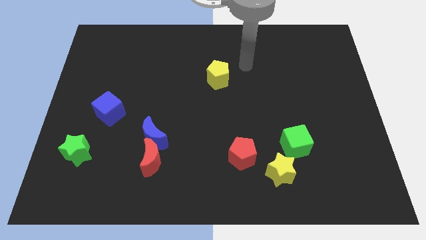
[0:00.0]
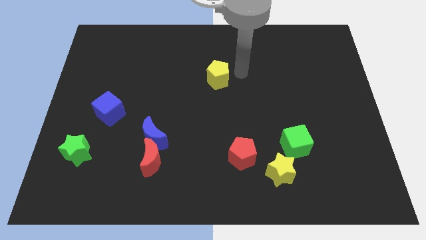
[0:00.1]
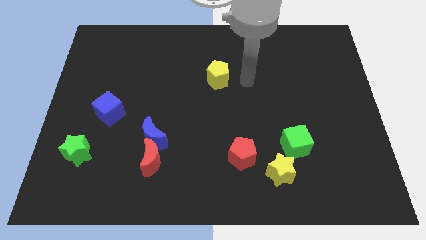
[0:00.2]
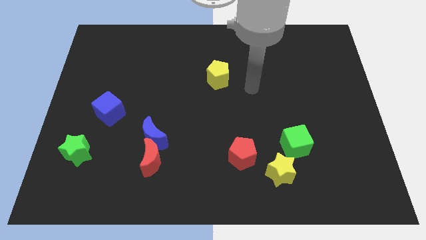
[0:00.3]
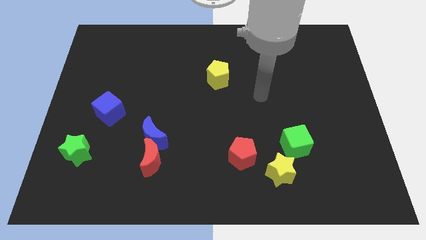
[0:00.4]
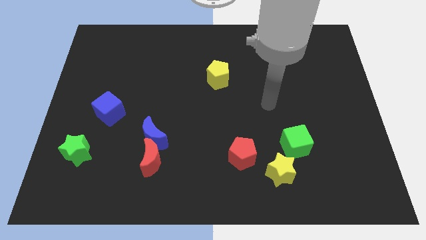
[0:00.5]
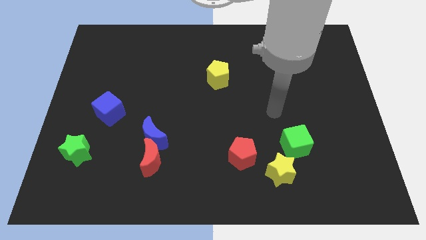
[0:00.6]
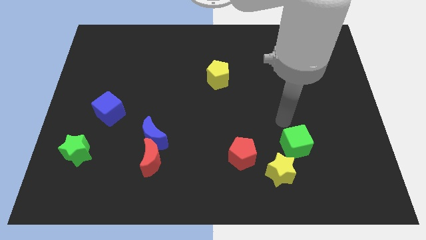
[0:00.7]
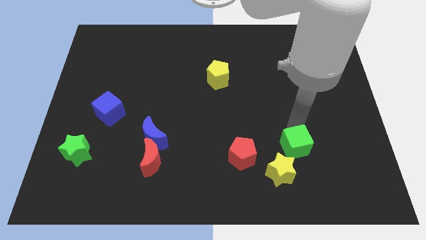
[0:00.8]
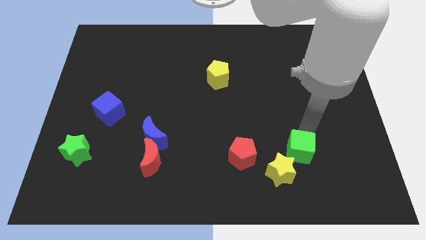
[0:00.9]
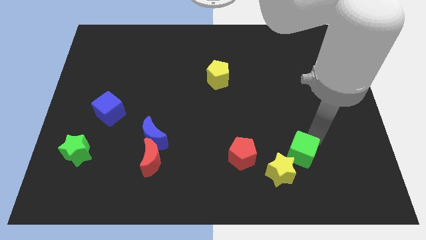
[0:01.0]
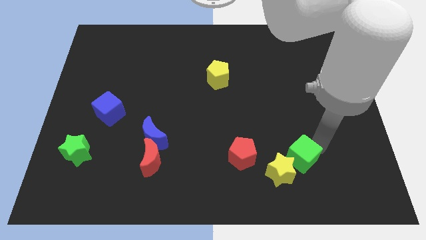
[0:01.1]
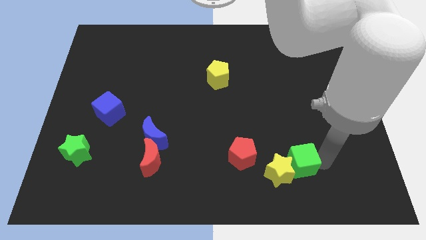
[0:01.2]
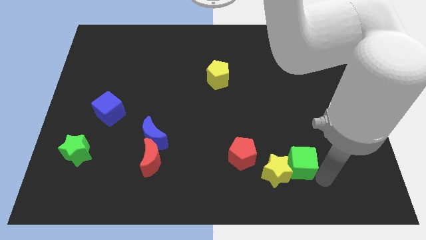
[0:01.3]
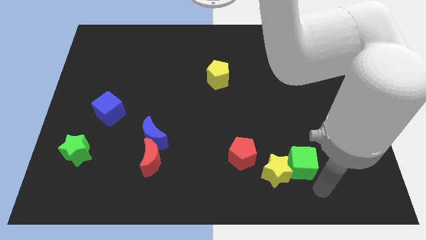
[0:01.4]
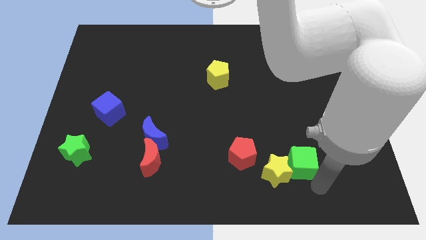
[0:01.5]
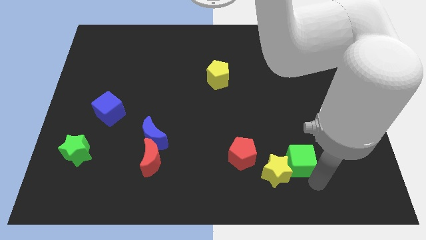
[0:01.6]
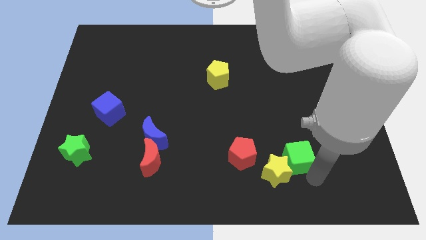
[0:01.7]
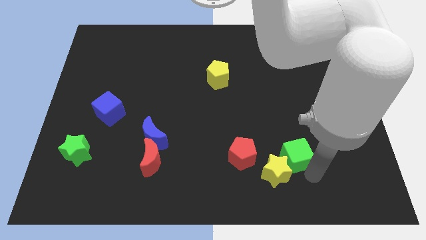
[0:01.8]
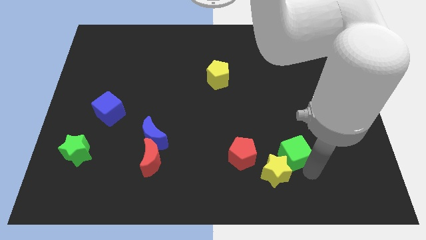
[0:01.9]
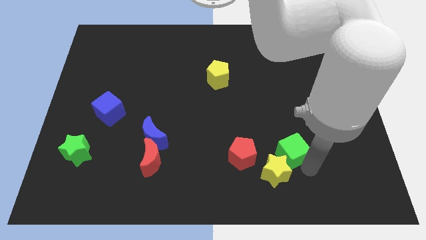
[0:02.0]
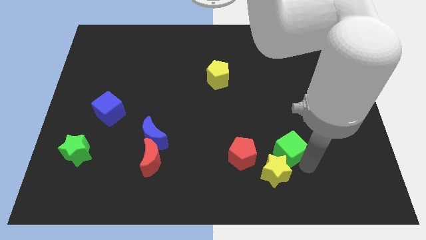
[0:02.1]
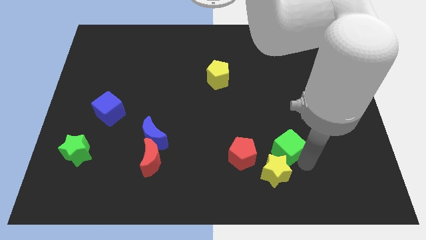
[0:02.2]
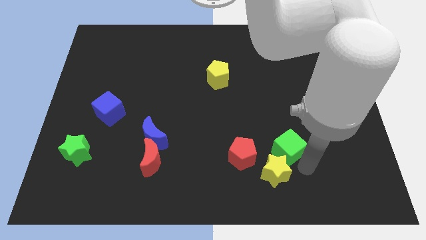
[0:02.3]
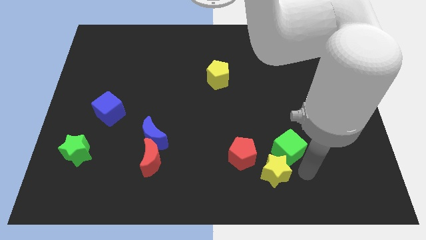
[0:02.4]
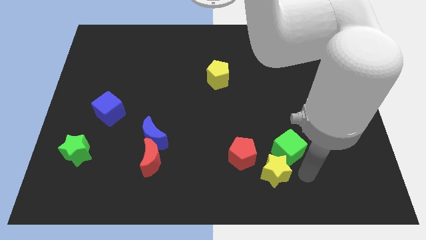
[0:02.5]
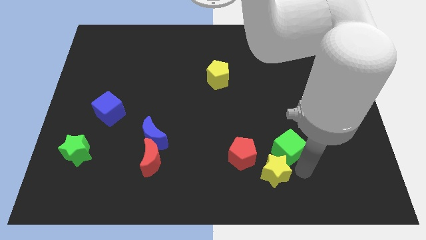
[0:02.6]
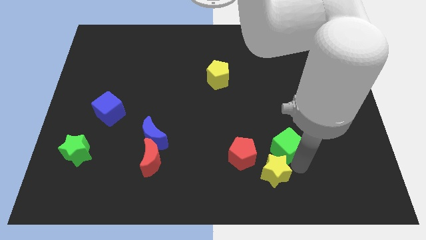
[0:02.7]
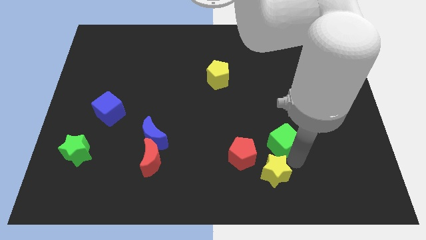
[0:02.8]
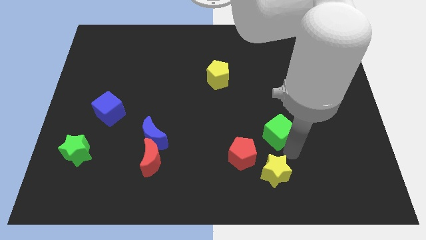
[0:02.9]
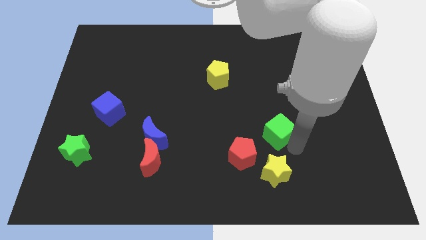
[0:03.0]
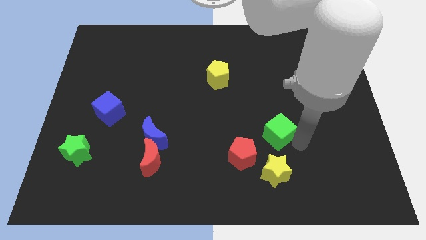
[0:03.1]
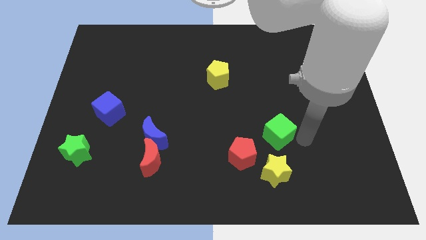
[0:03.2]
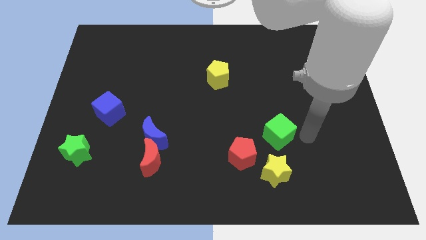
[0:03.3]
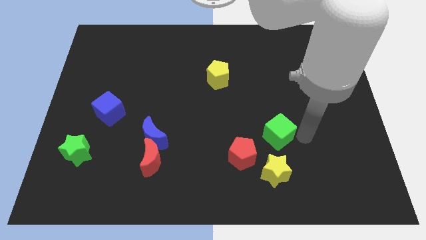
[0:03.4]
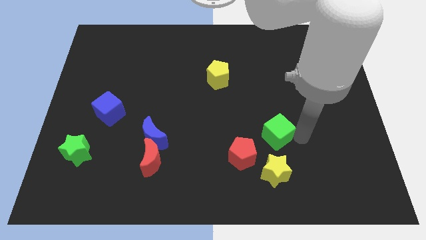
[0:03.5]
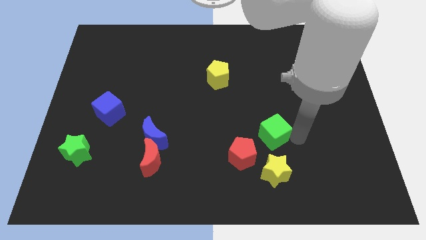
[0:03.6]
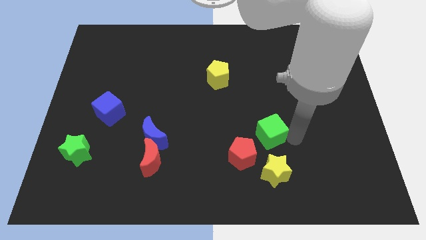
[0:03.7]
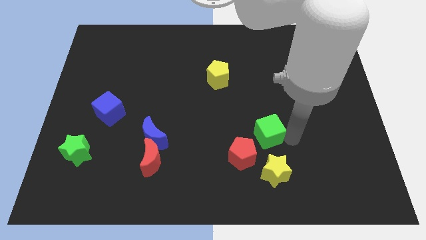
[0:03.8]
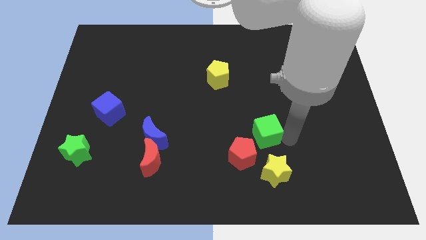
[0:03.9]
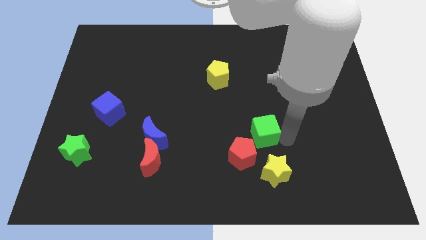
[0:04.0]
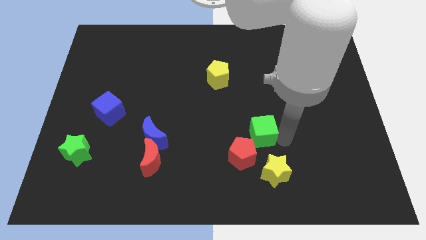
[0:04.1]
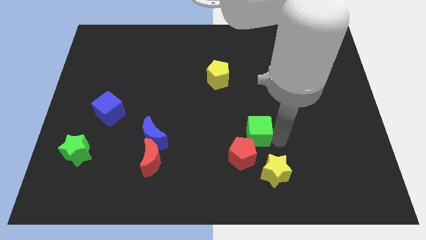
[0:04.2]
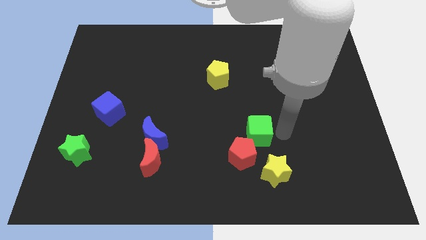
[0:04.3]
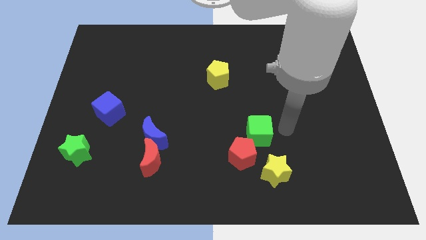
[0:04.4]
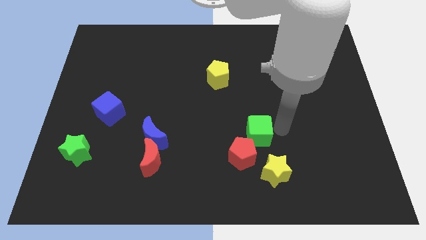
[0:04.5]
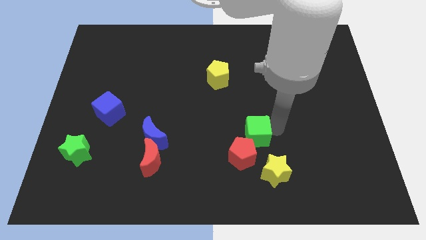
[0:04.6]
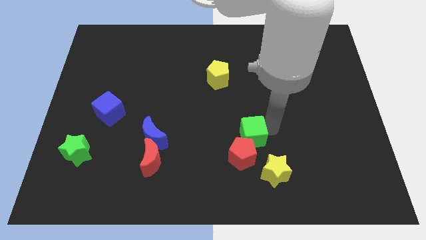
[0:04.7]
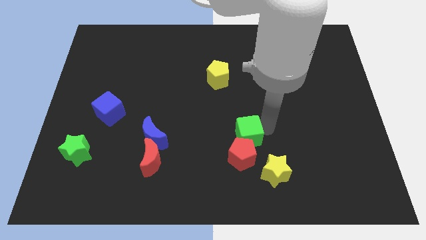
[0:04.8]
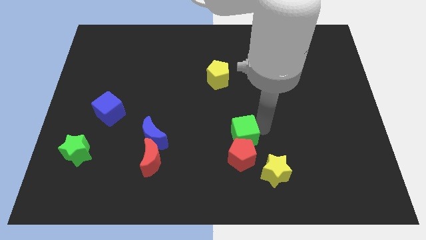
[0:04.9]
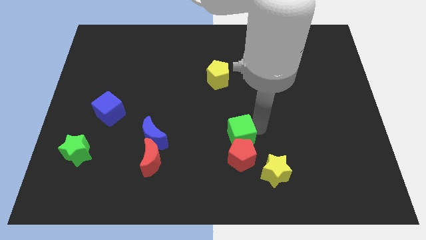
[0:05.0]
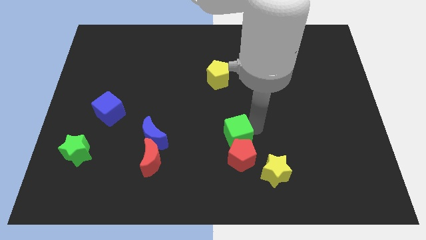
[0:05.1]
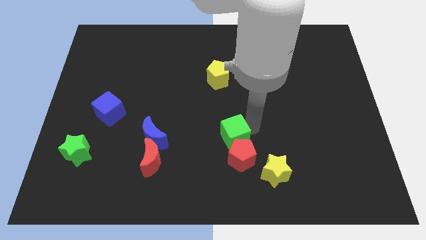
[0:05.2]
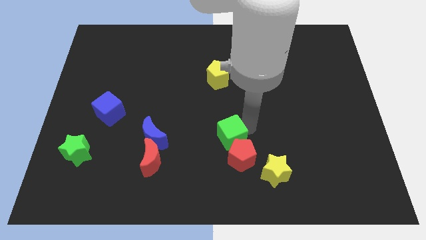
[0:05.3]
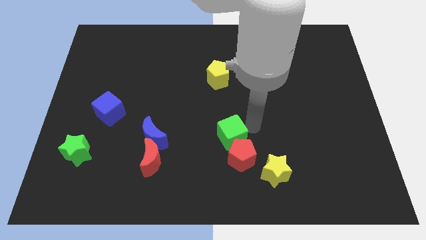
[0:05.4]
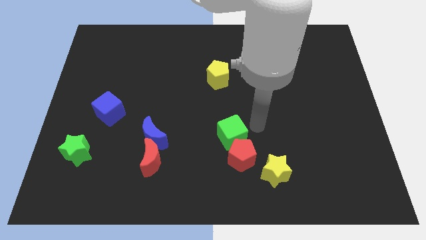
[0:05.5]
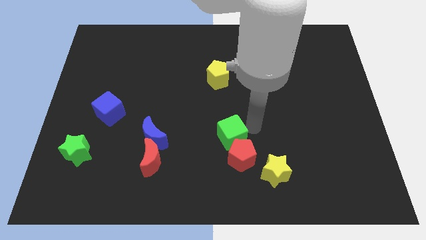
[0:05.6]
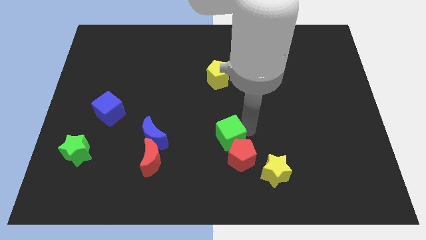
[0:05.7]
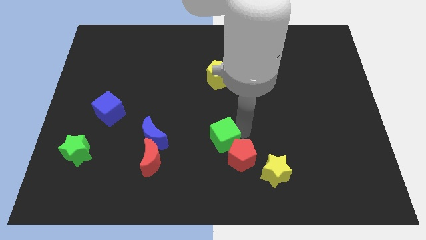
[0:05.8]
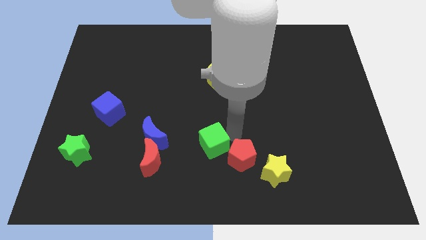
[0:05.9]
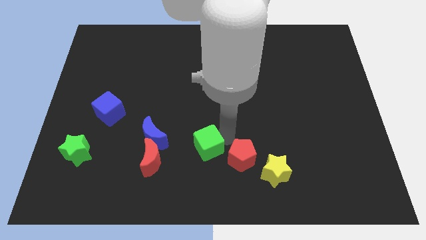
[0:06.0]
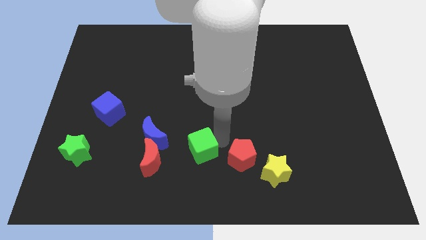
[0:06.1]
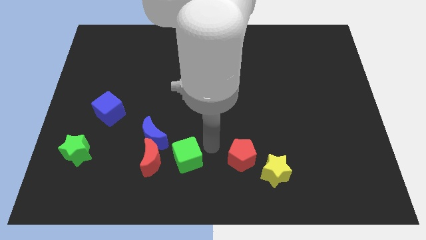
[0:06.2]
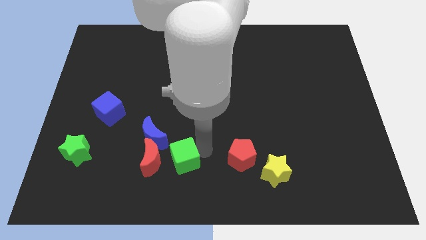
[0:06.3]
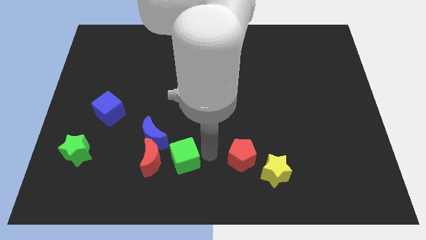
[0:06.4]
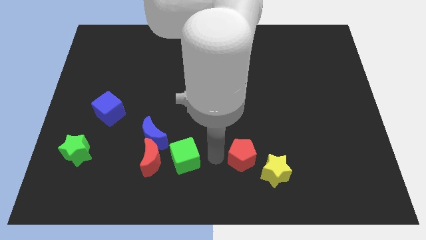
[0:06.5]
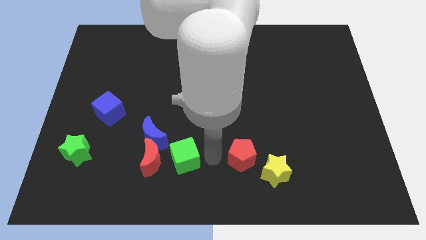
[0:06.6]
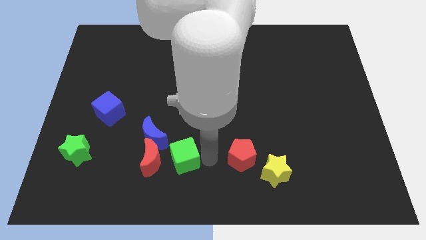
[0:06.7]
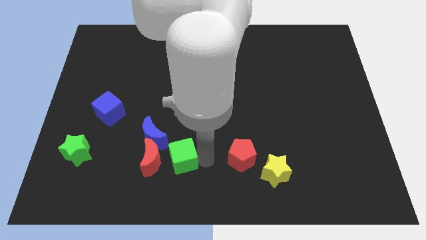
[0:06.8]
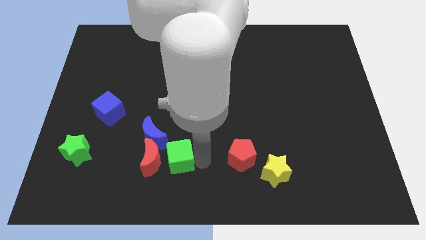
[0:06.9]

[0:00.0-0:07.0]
slide the green cube close to the red moon
